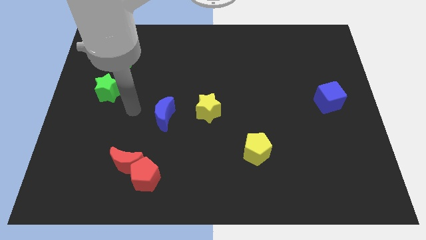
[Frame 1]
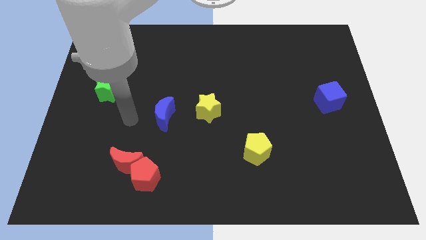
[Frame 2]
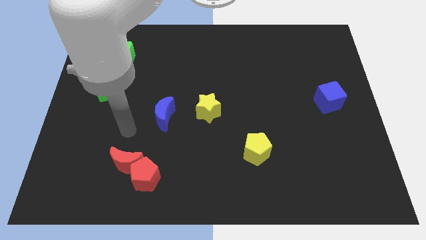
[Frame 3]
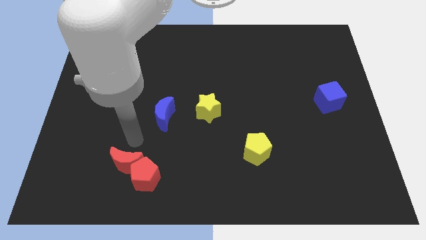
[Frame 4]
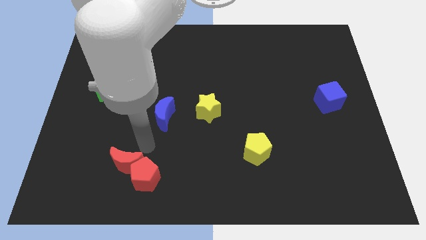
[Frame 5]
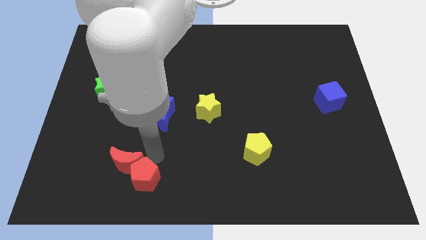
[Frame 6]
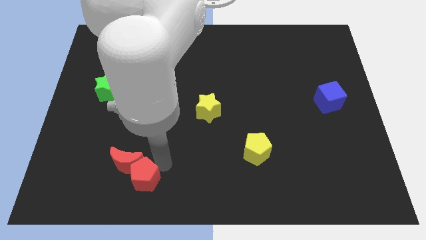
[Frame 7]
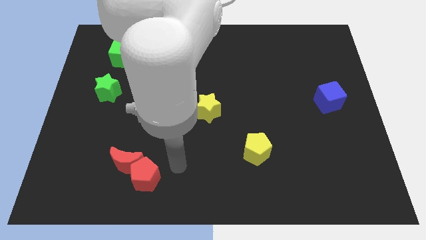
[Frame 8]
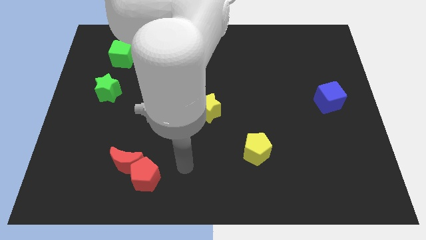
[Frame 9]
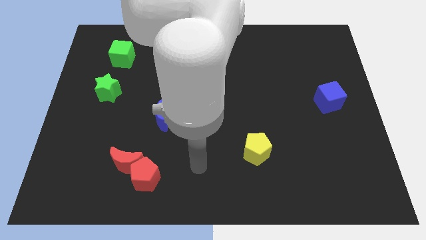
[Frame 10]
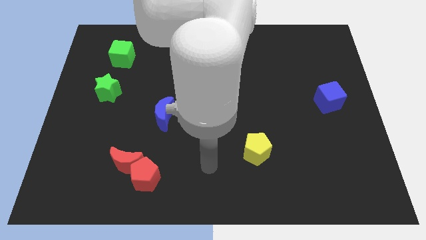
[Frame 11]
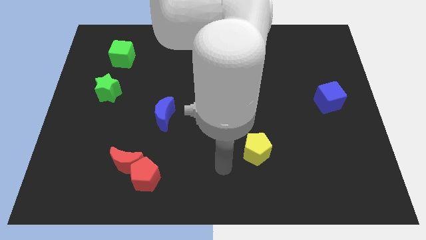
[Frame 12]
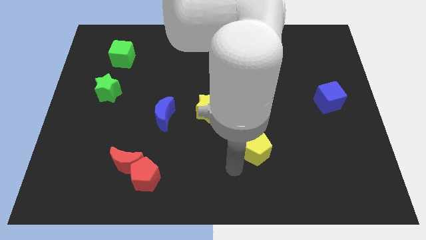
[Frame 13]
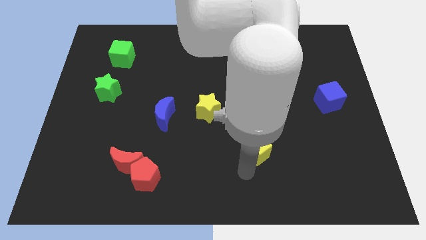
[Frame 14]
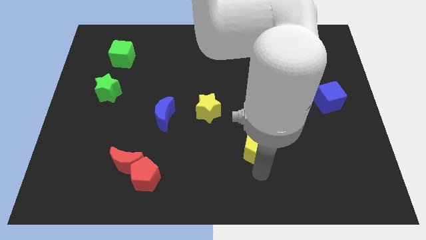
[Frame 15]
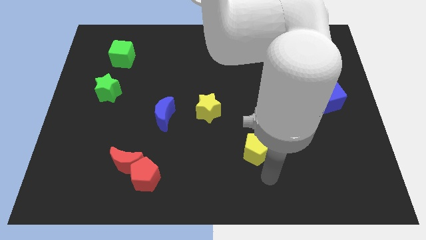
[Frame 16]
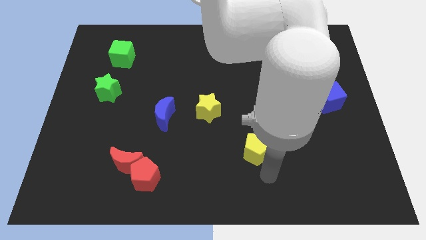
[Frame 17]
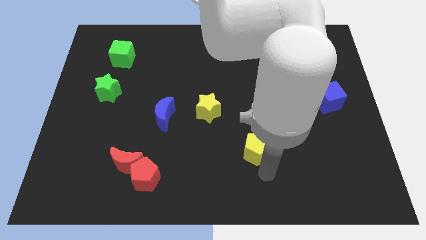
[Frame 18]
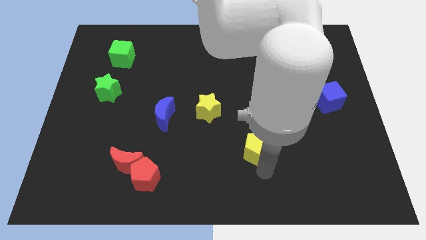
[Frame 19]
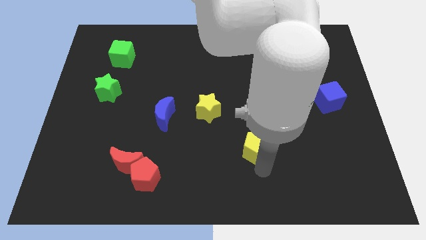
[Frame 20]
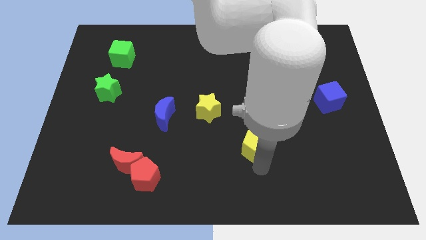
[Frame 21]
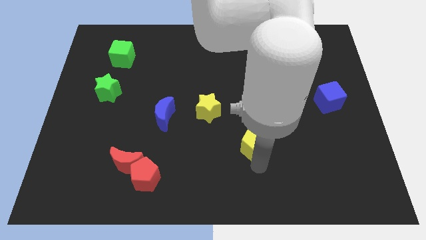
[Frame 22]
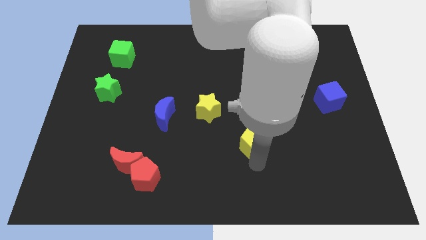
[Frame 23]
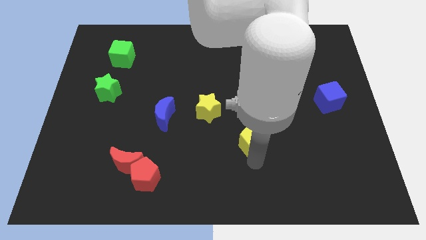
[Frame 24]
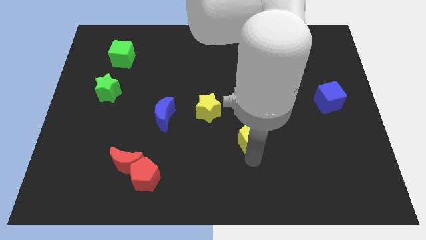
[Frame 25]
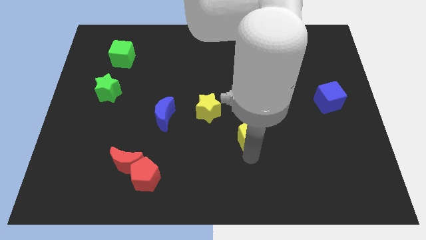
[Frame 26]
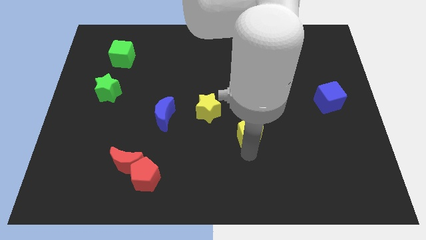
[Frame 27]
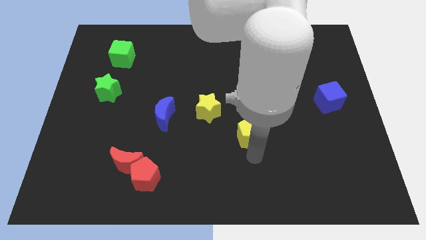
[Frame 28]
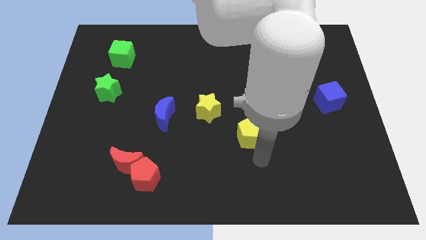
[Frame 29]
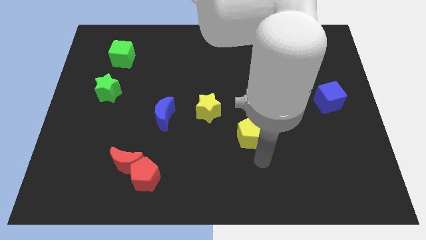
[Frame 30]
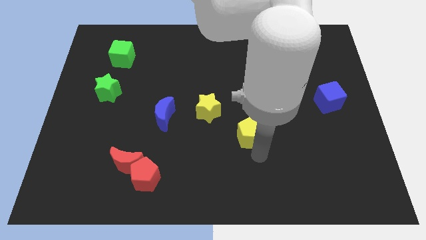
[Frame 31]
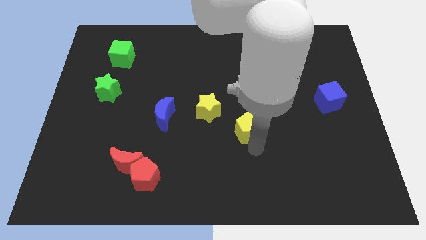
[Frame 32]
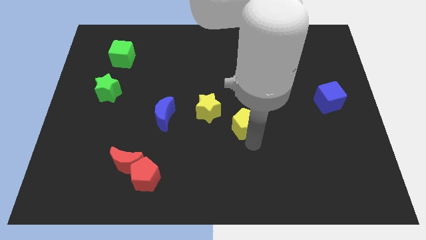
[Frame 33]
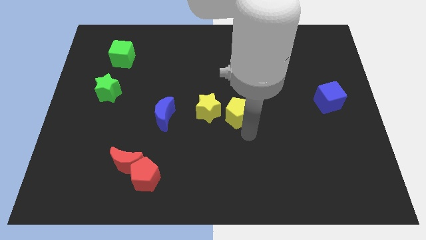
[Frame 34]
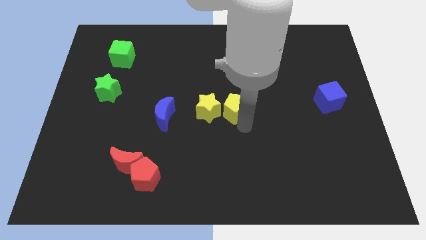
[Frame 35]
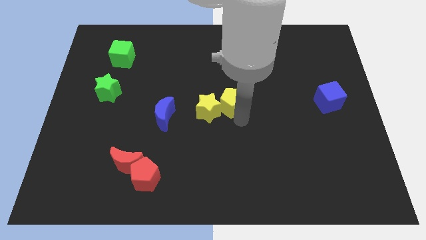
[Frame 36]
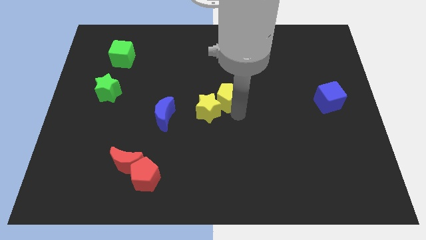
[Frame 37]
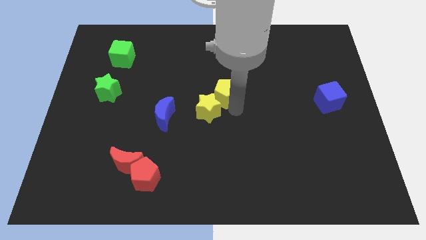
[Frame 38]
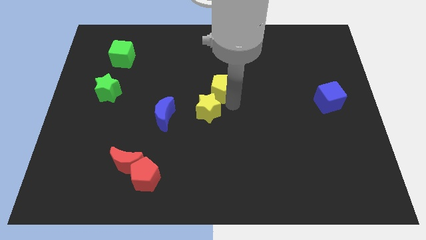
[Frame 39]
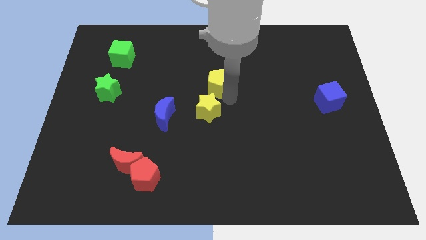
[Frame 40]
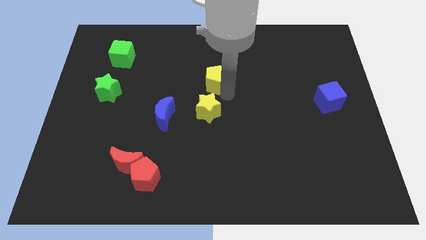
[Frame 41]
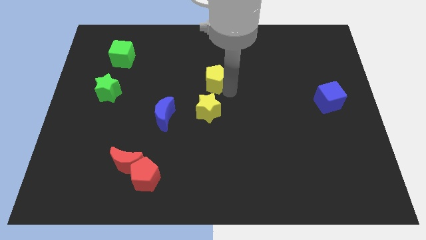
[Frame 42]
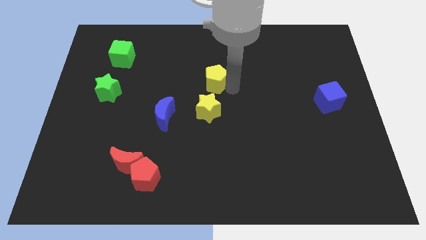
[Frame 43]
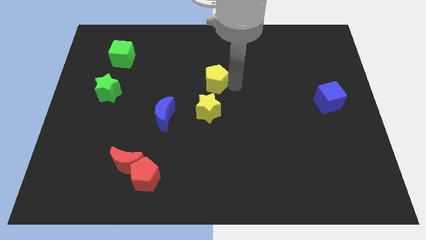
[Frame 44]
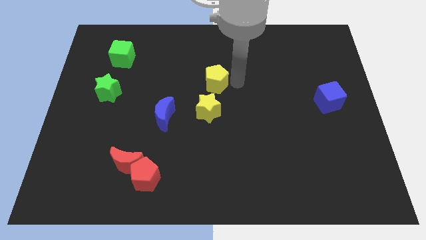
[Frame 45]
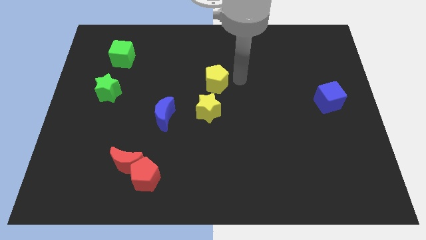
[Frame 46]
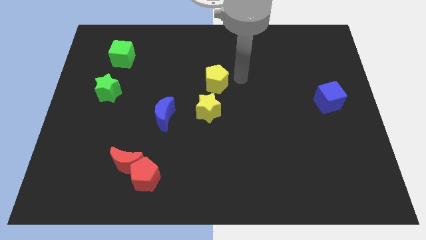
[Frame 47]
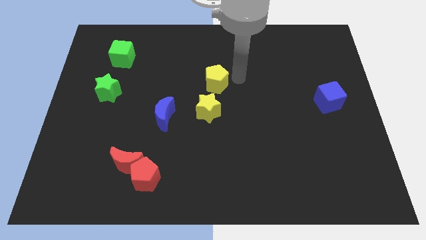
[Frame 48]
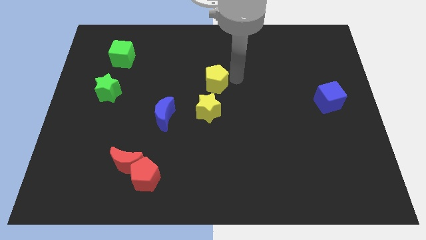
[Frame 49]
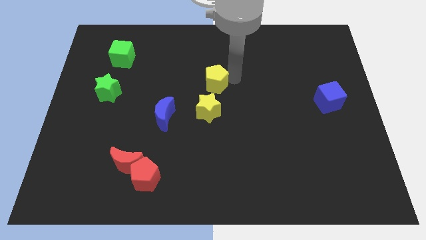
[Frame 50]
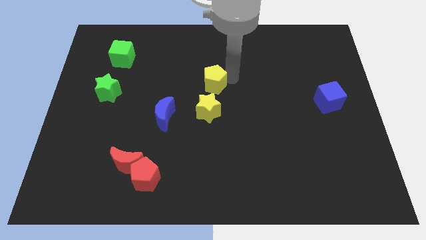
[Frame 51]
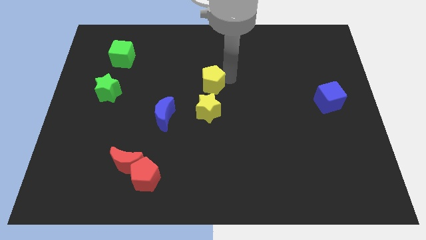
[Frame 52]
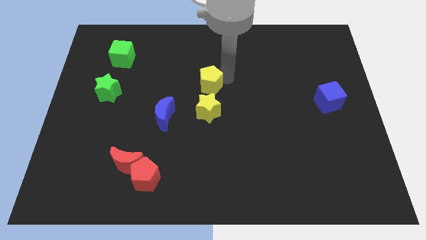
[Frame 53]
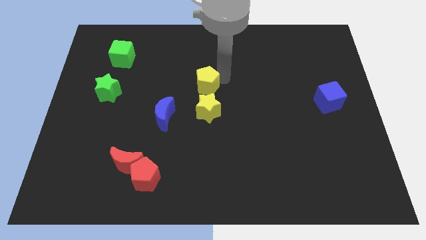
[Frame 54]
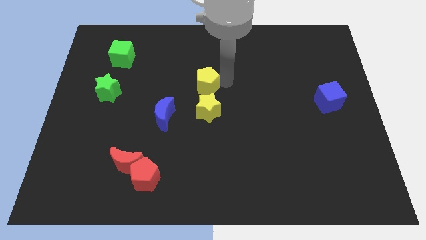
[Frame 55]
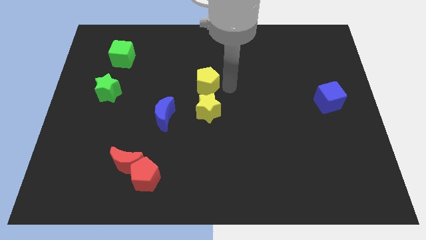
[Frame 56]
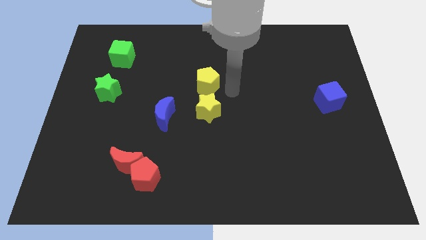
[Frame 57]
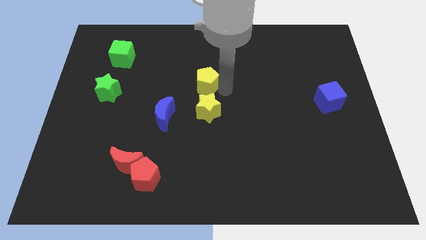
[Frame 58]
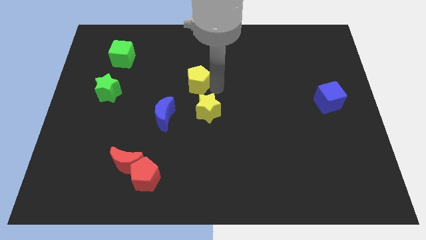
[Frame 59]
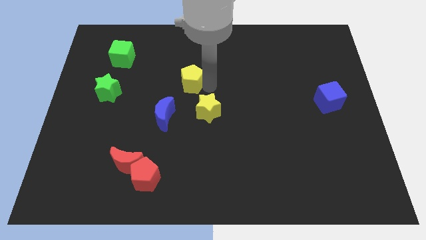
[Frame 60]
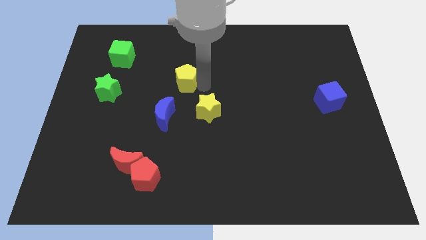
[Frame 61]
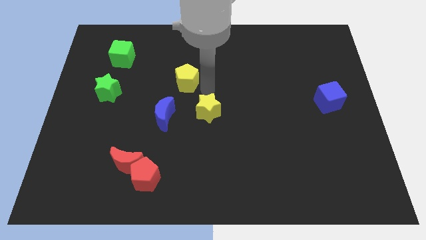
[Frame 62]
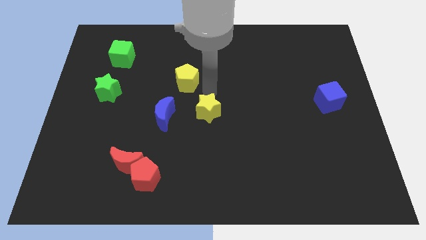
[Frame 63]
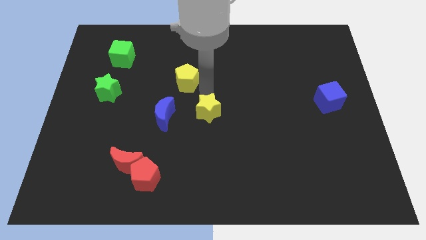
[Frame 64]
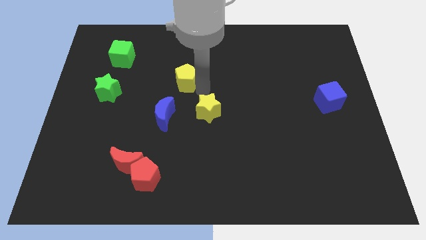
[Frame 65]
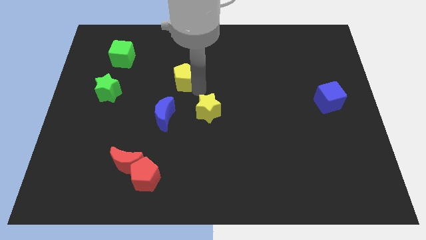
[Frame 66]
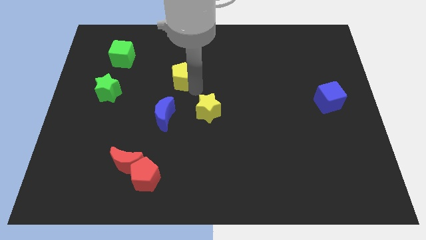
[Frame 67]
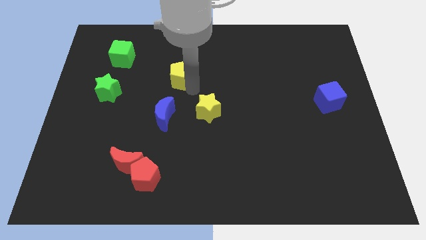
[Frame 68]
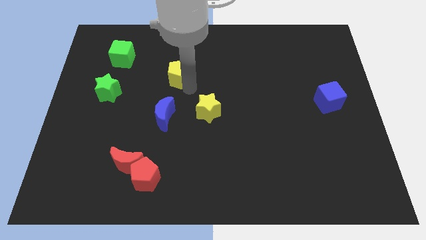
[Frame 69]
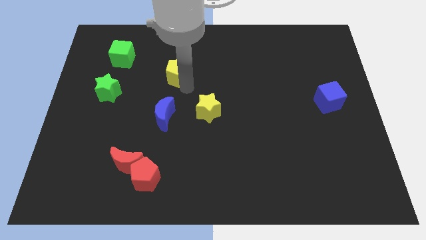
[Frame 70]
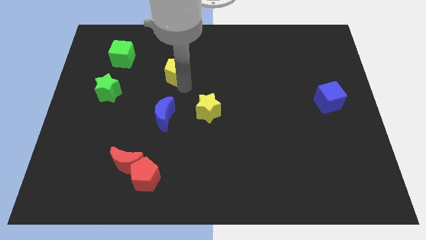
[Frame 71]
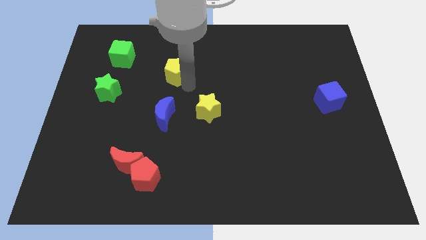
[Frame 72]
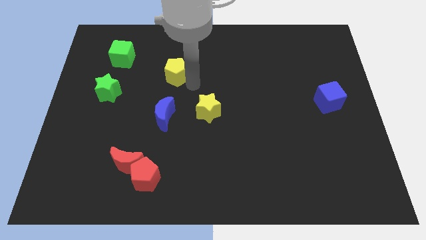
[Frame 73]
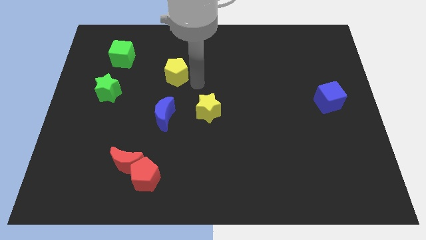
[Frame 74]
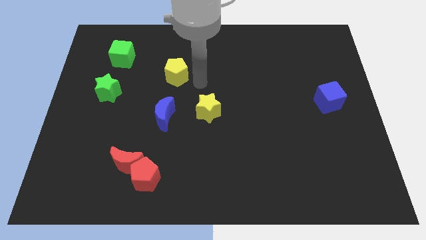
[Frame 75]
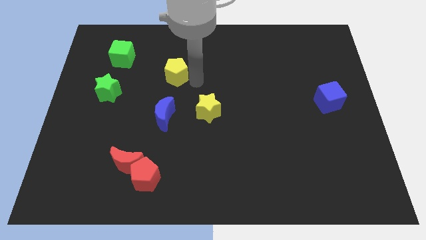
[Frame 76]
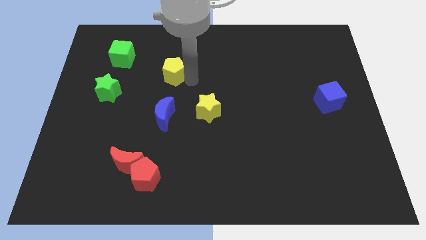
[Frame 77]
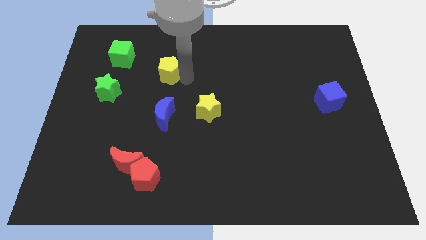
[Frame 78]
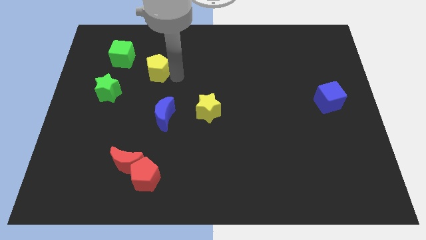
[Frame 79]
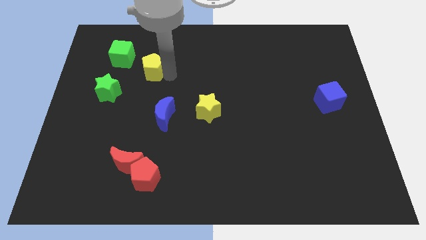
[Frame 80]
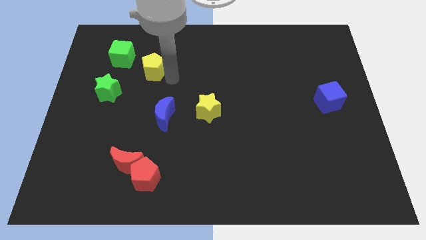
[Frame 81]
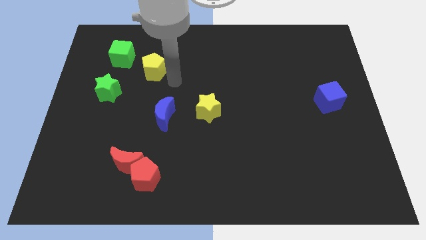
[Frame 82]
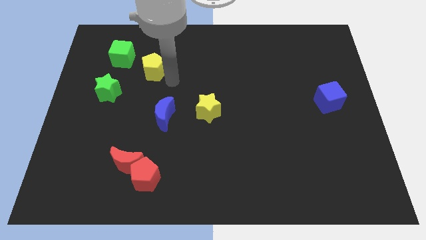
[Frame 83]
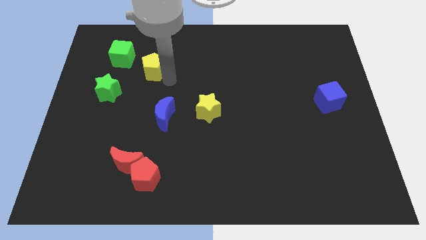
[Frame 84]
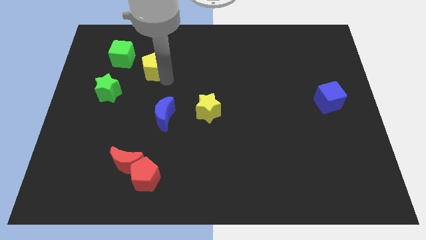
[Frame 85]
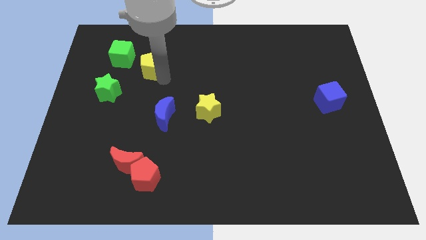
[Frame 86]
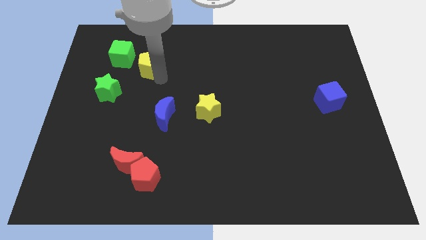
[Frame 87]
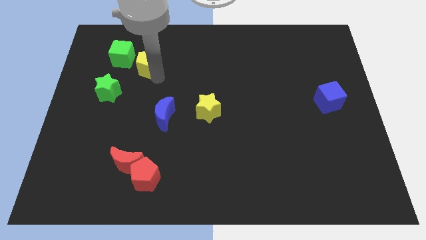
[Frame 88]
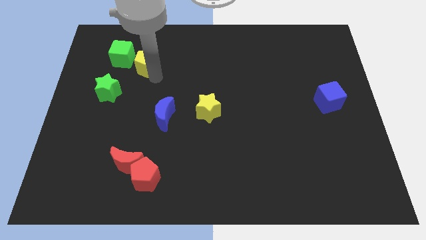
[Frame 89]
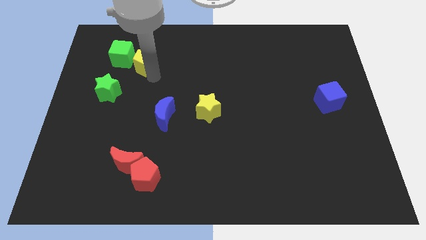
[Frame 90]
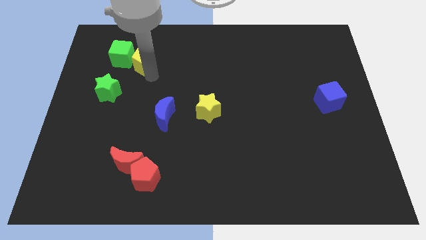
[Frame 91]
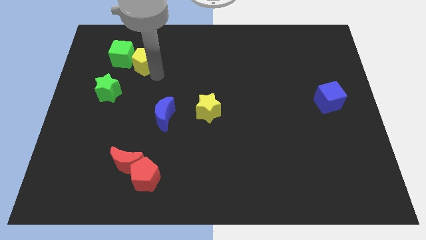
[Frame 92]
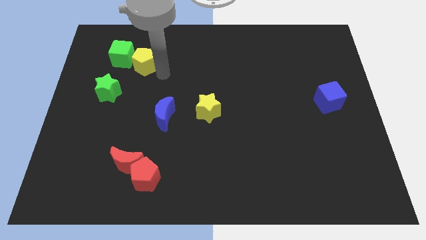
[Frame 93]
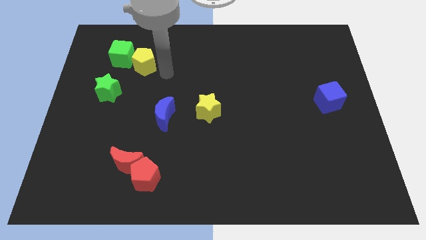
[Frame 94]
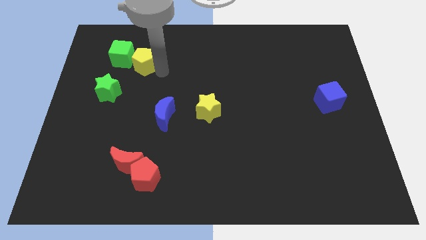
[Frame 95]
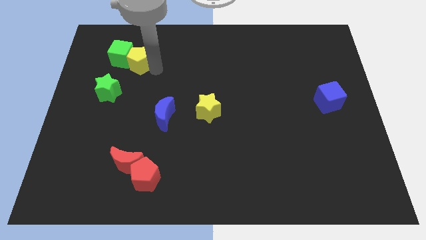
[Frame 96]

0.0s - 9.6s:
move the yellow pentagon to the green cube
